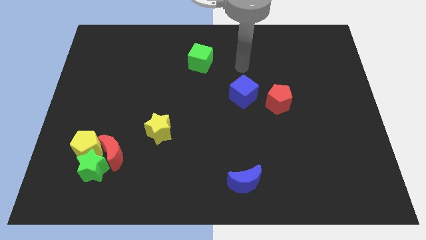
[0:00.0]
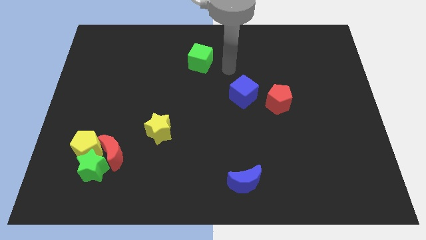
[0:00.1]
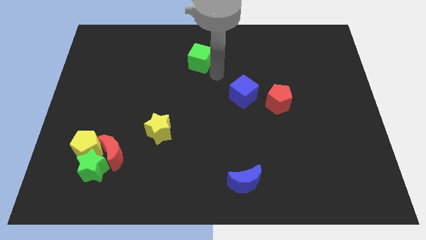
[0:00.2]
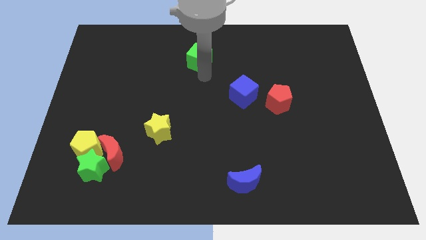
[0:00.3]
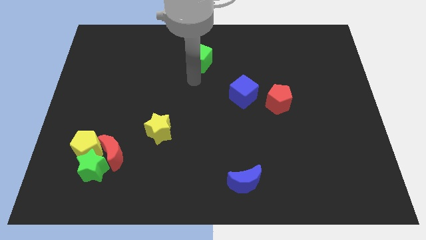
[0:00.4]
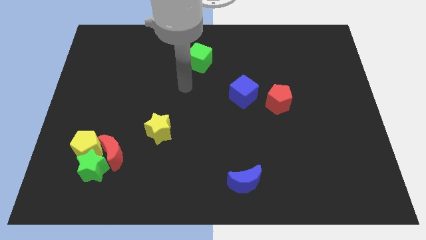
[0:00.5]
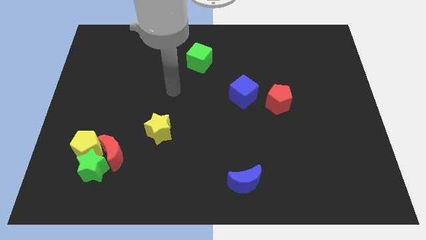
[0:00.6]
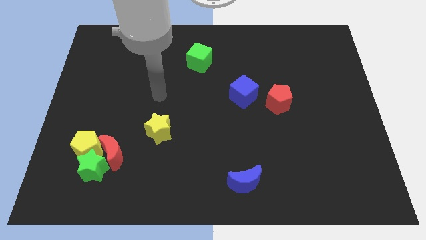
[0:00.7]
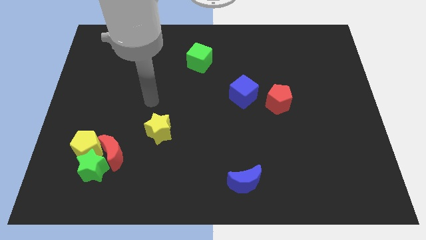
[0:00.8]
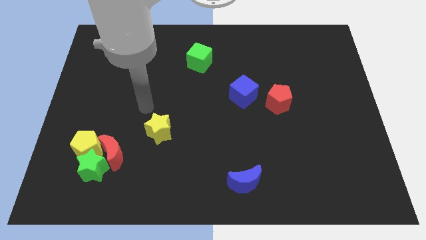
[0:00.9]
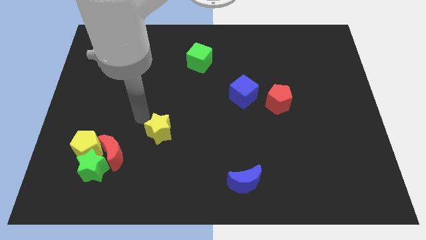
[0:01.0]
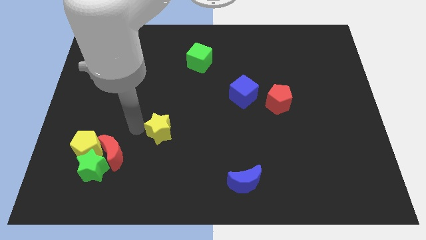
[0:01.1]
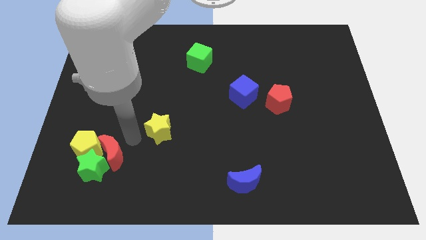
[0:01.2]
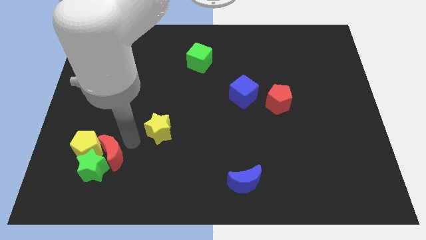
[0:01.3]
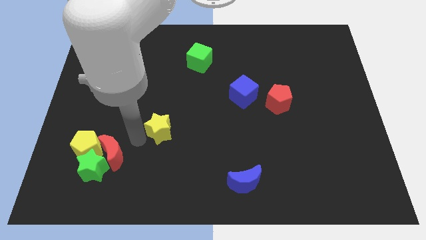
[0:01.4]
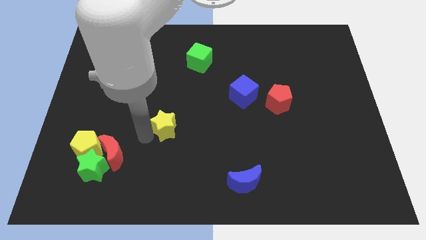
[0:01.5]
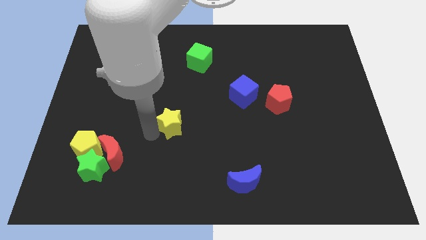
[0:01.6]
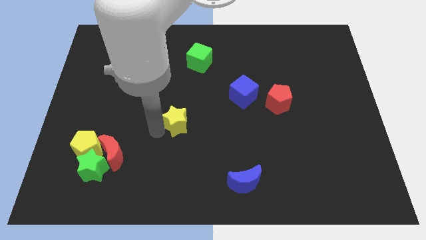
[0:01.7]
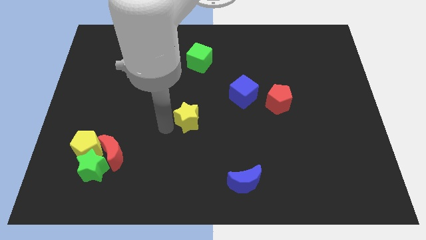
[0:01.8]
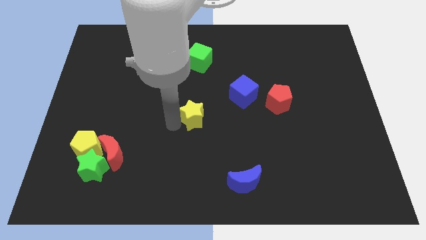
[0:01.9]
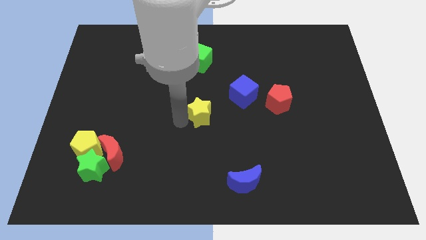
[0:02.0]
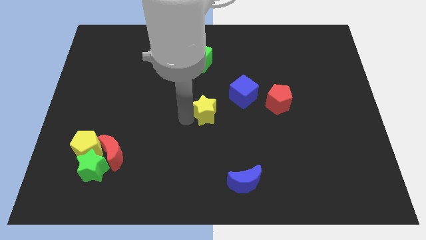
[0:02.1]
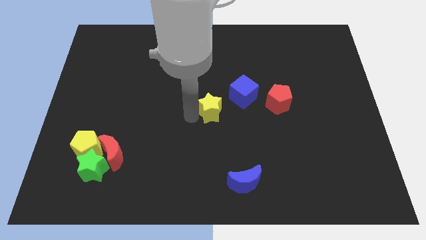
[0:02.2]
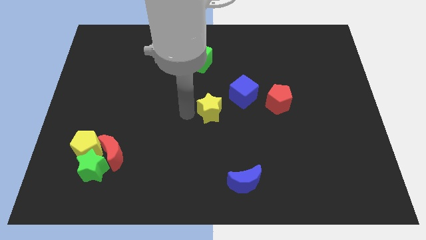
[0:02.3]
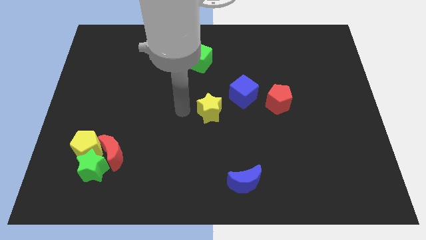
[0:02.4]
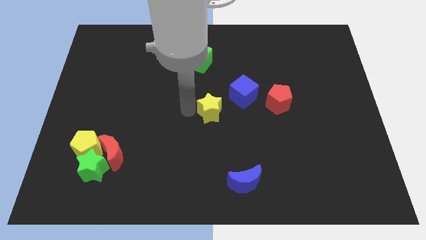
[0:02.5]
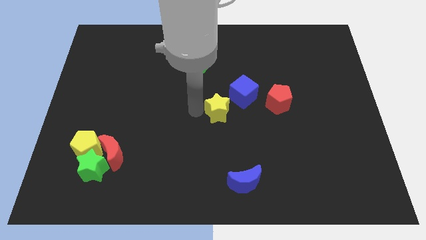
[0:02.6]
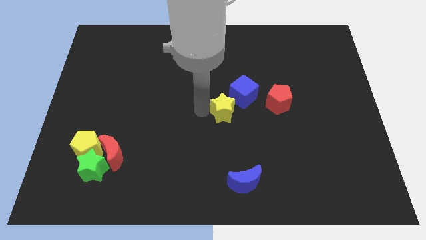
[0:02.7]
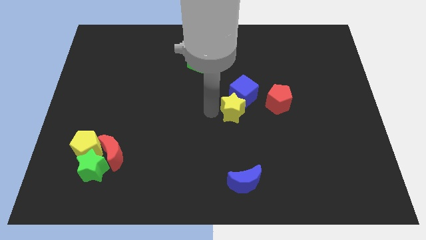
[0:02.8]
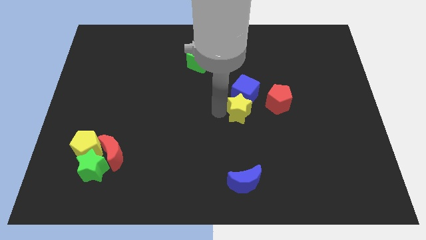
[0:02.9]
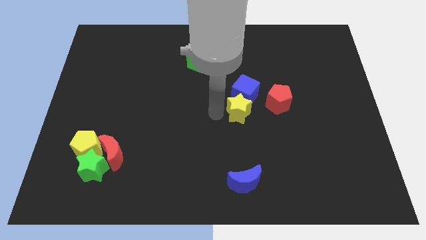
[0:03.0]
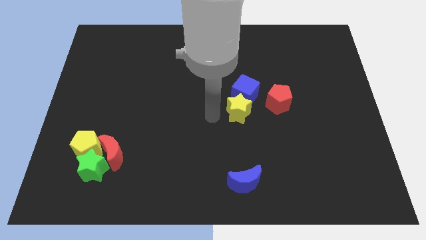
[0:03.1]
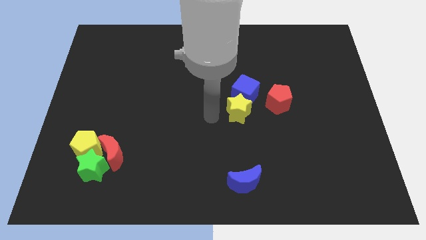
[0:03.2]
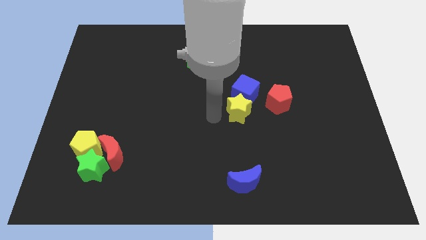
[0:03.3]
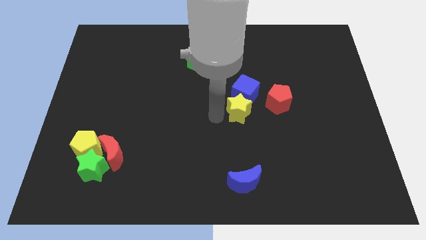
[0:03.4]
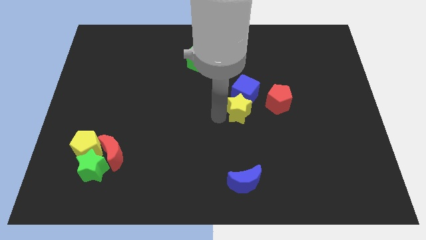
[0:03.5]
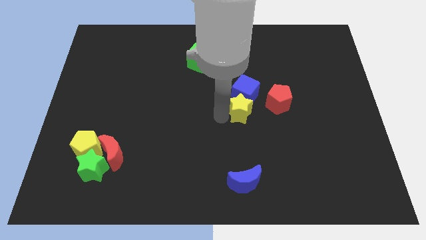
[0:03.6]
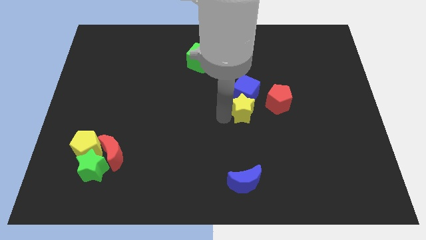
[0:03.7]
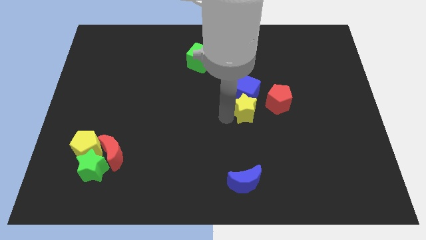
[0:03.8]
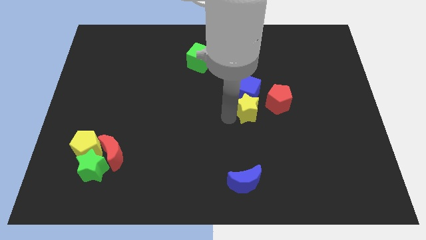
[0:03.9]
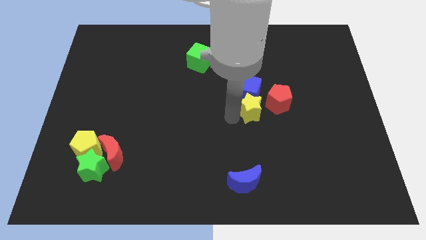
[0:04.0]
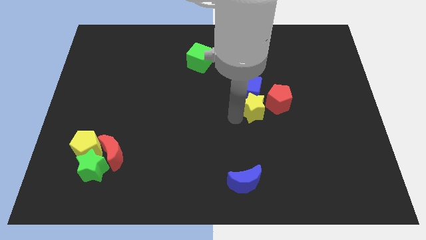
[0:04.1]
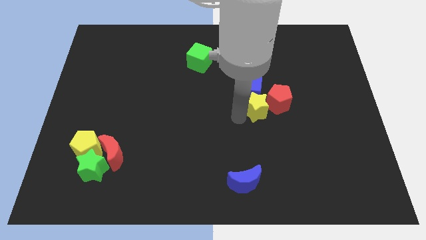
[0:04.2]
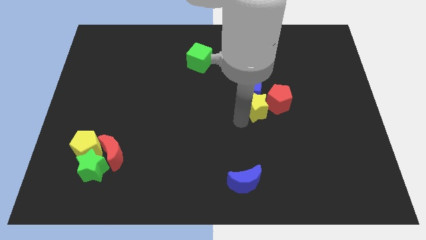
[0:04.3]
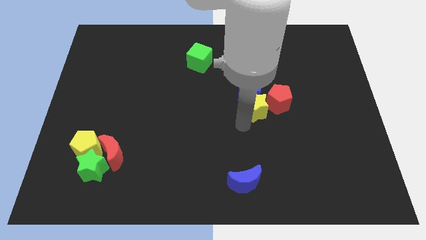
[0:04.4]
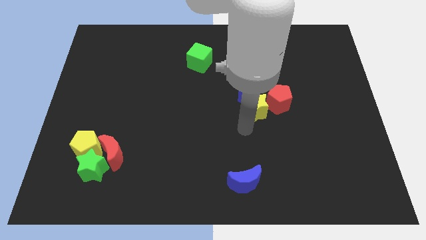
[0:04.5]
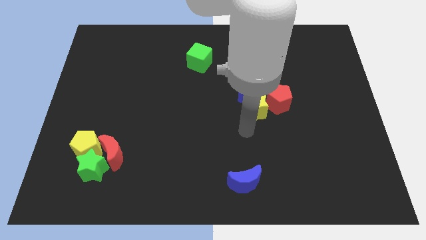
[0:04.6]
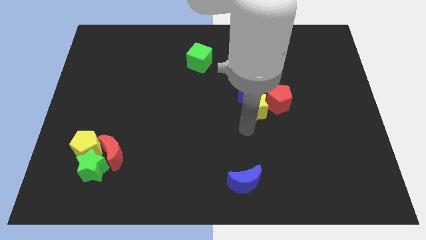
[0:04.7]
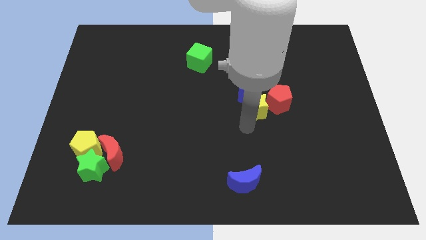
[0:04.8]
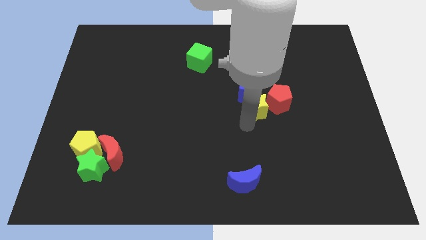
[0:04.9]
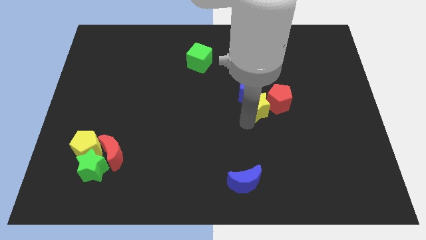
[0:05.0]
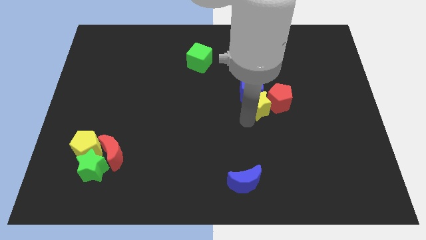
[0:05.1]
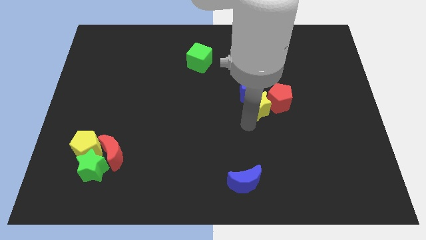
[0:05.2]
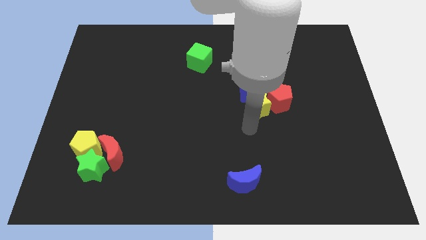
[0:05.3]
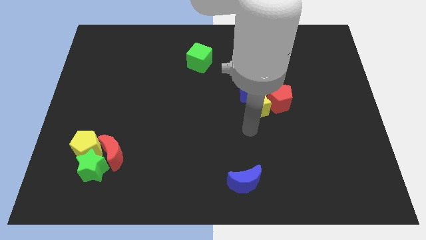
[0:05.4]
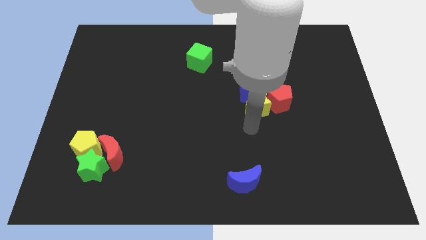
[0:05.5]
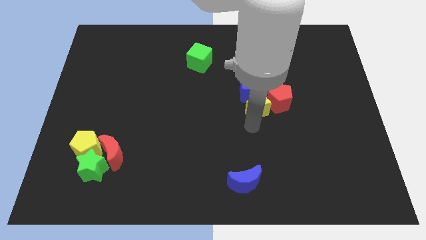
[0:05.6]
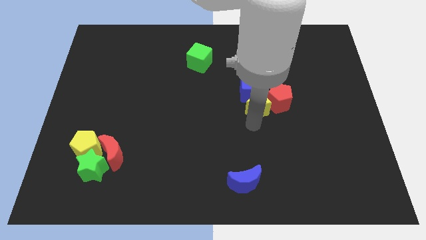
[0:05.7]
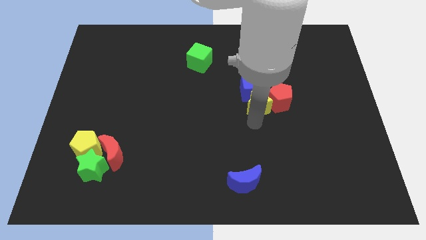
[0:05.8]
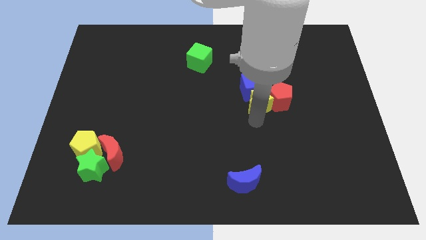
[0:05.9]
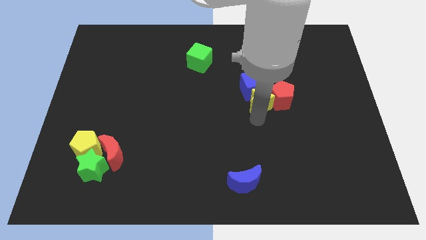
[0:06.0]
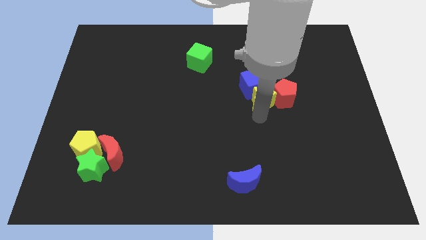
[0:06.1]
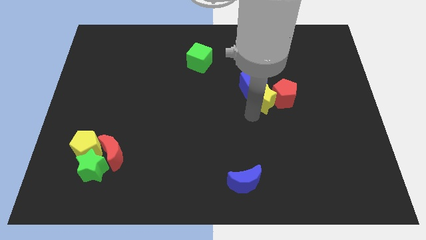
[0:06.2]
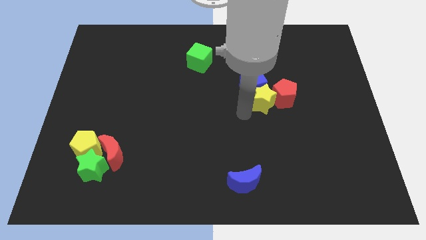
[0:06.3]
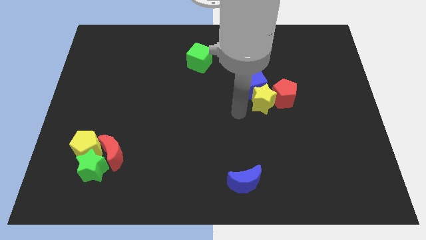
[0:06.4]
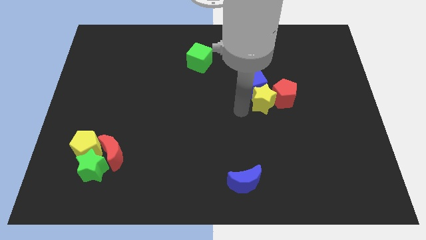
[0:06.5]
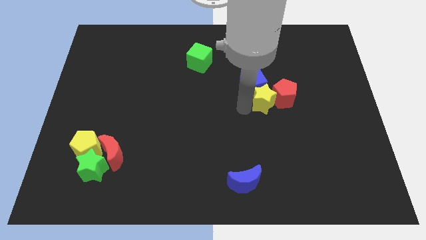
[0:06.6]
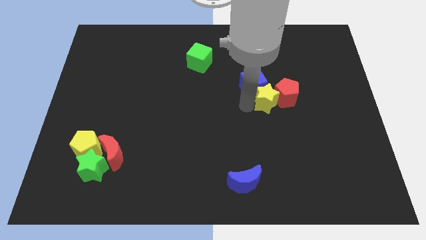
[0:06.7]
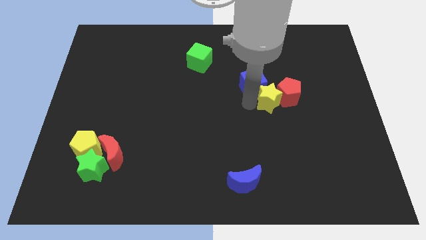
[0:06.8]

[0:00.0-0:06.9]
put the yellow star to the right of the blue cube

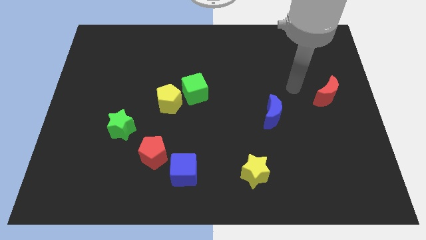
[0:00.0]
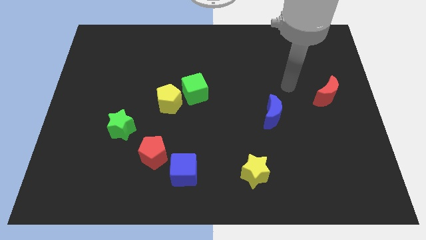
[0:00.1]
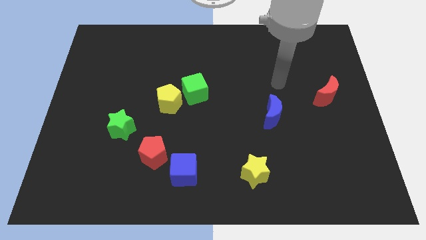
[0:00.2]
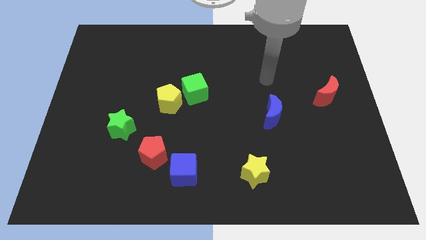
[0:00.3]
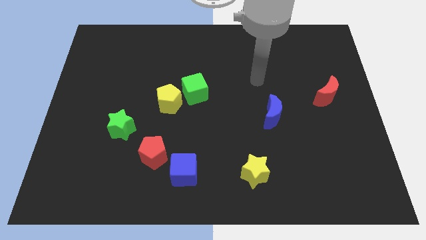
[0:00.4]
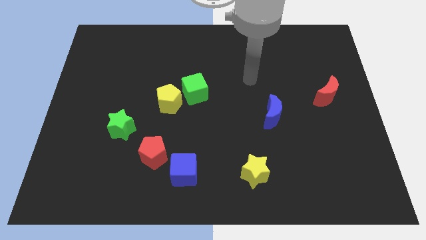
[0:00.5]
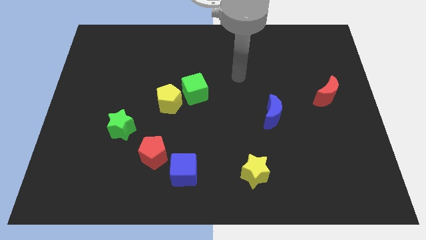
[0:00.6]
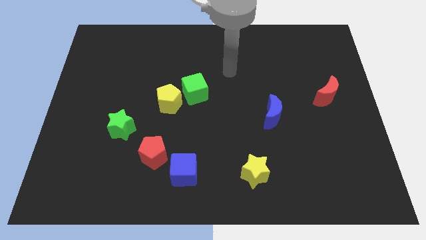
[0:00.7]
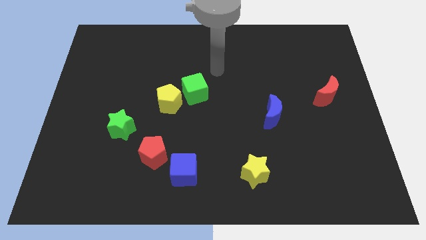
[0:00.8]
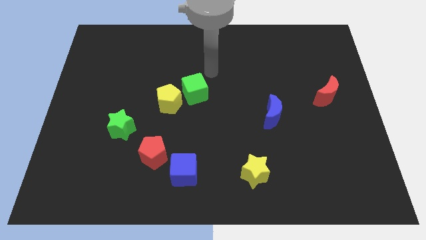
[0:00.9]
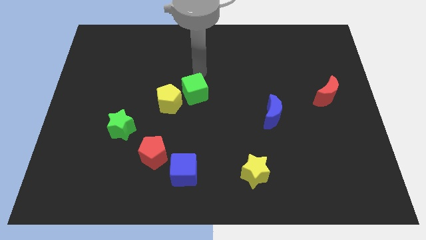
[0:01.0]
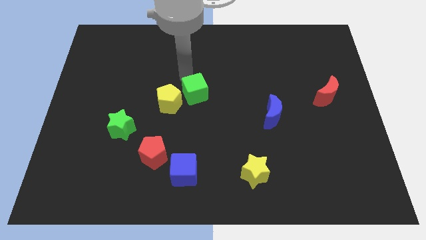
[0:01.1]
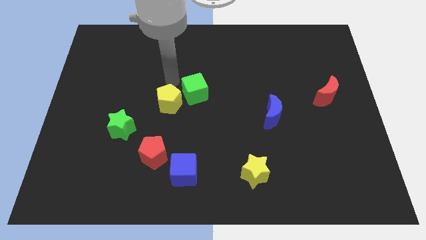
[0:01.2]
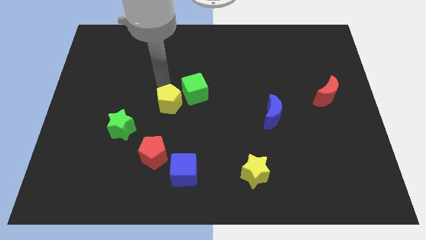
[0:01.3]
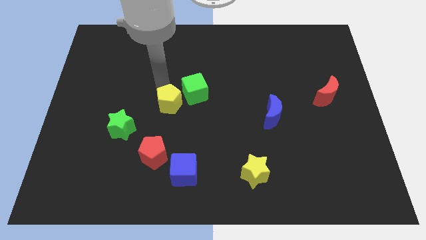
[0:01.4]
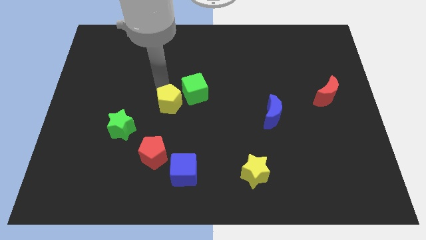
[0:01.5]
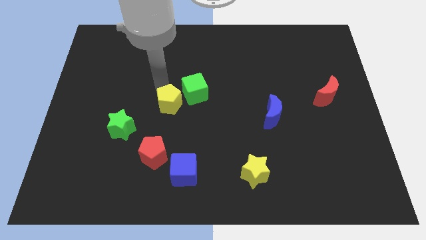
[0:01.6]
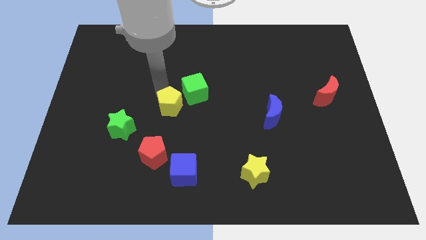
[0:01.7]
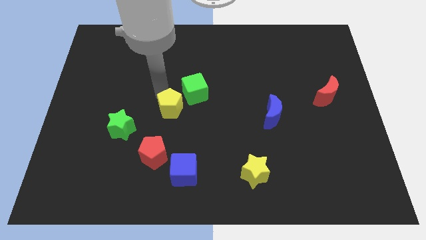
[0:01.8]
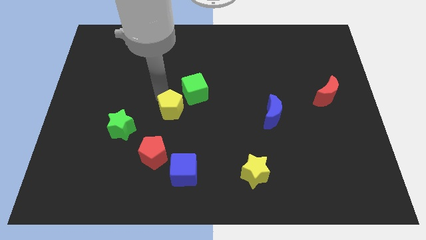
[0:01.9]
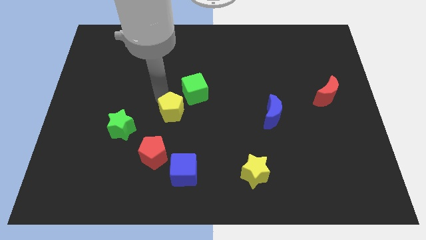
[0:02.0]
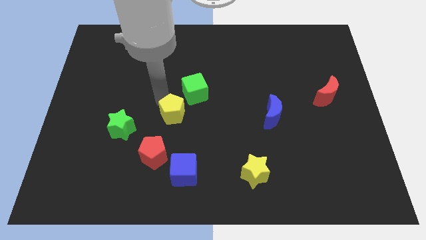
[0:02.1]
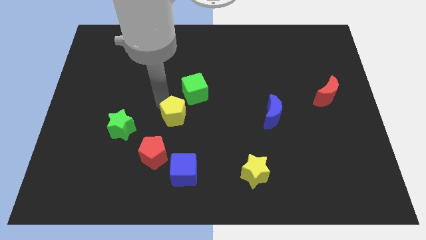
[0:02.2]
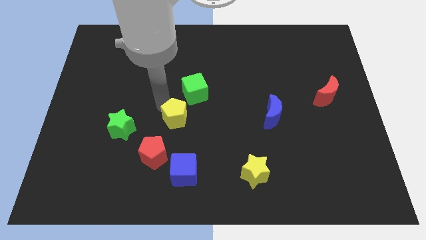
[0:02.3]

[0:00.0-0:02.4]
put the yellow pentagon diagonally up and to the right of the red pentagon
